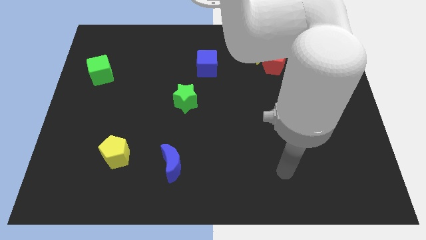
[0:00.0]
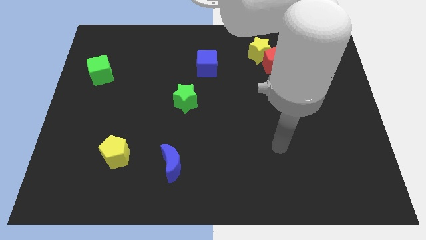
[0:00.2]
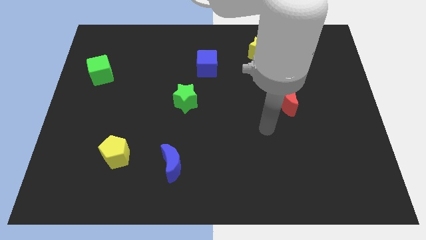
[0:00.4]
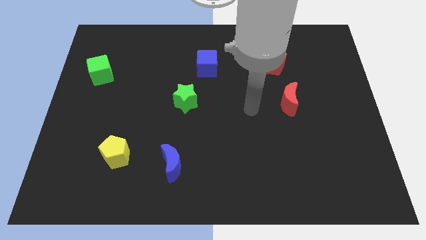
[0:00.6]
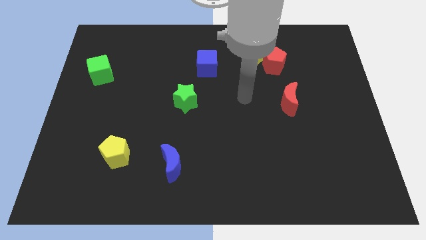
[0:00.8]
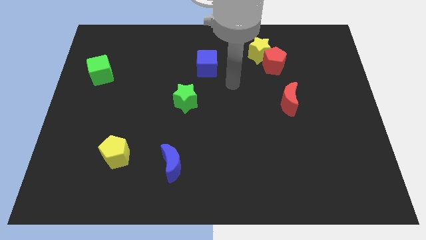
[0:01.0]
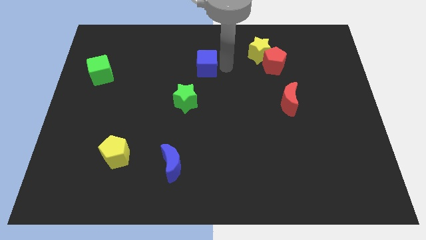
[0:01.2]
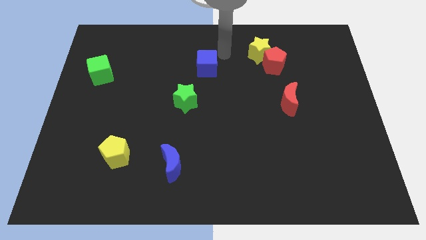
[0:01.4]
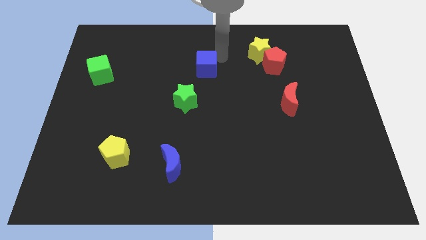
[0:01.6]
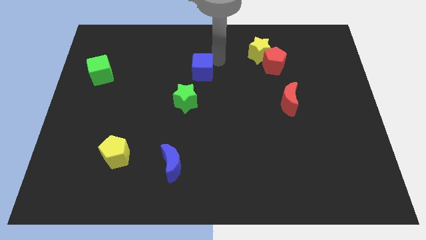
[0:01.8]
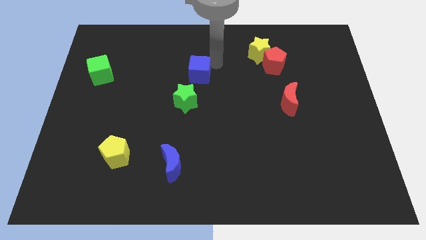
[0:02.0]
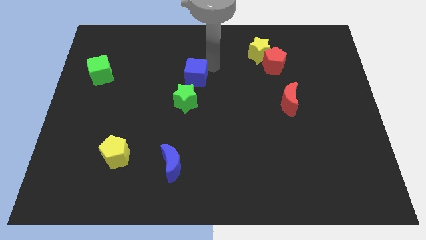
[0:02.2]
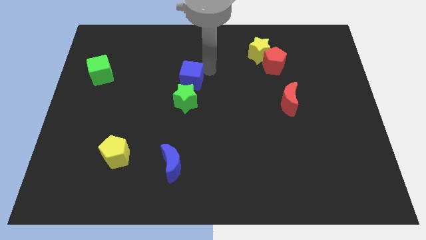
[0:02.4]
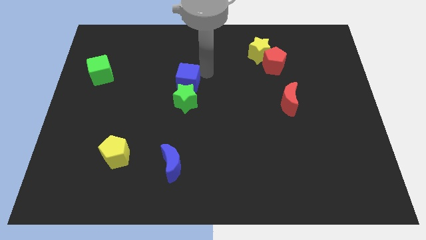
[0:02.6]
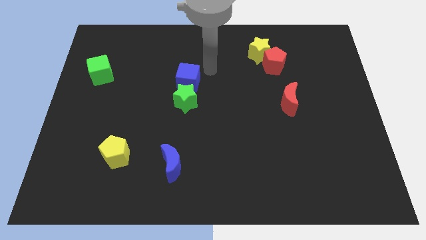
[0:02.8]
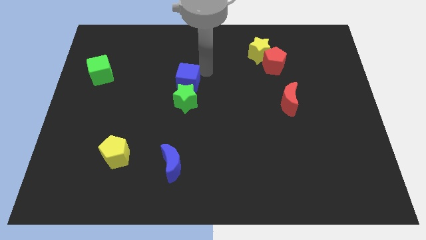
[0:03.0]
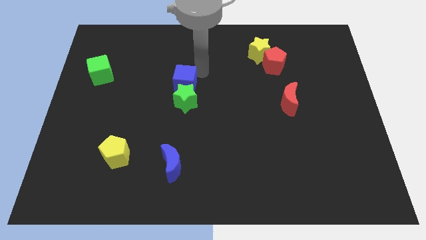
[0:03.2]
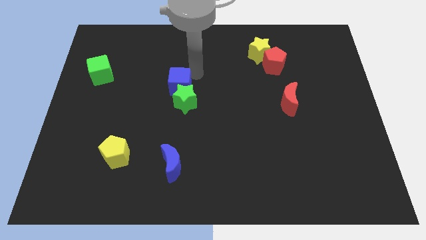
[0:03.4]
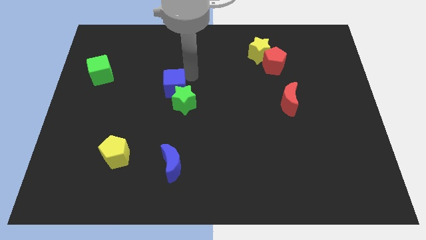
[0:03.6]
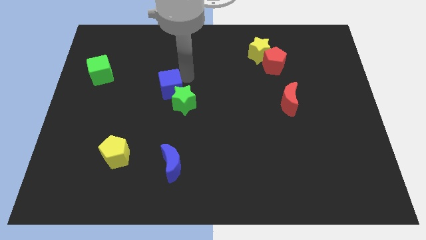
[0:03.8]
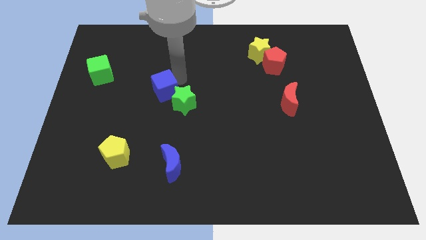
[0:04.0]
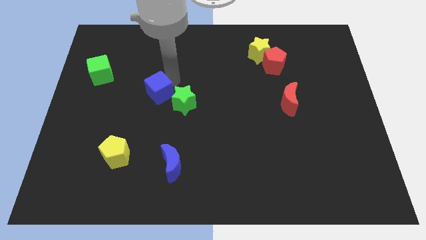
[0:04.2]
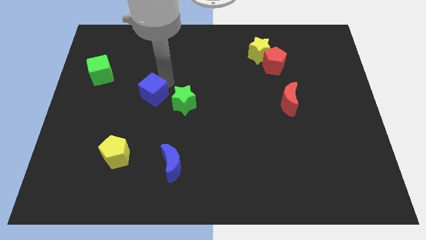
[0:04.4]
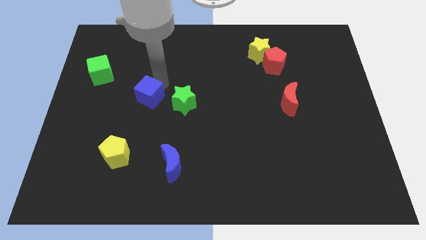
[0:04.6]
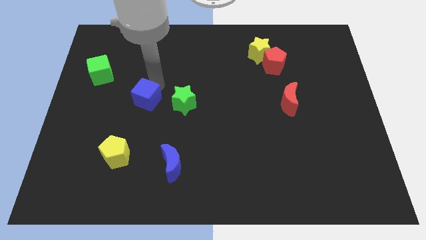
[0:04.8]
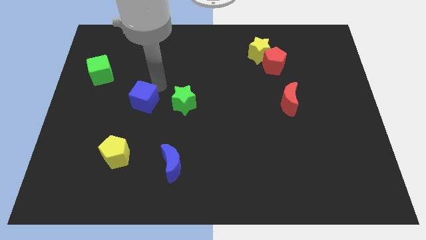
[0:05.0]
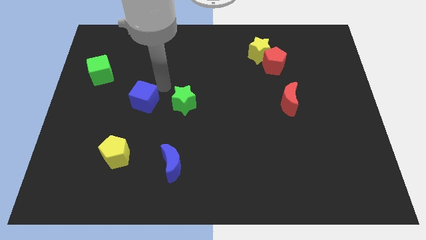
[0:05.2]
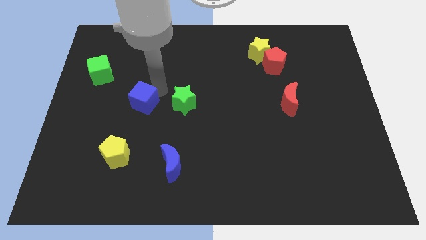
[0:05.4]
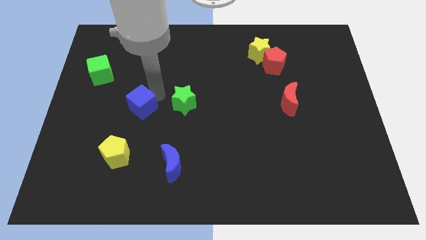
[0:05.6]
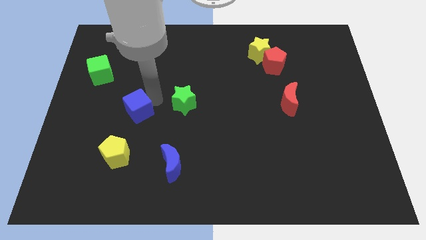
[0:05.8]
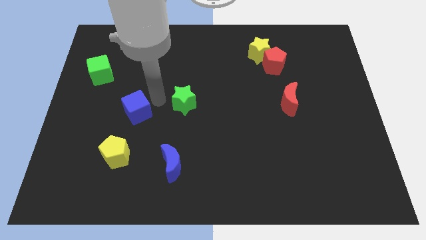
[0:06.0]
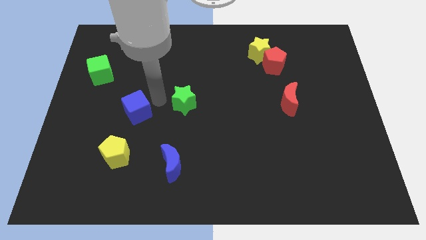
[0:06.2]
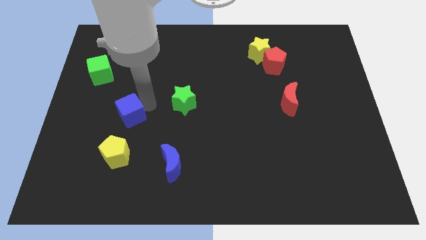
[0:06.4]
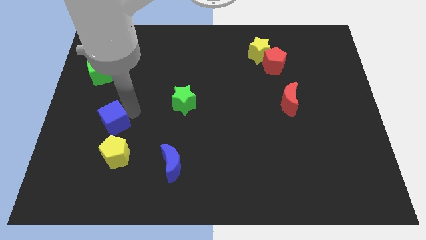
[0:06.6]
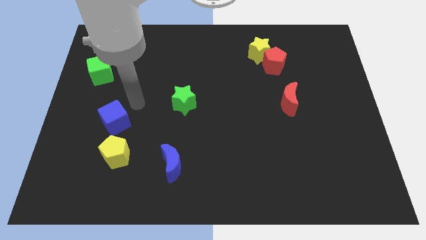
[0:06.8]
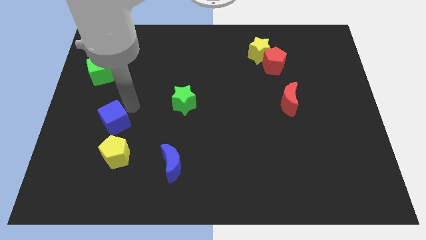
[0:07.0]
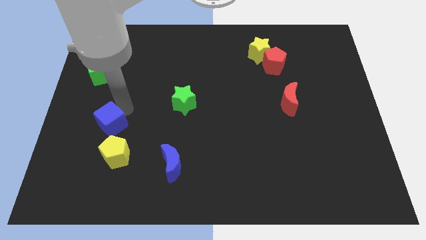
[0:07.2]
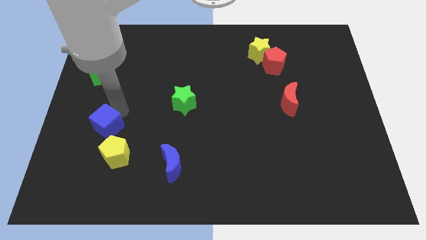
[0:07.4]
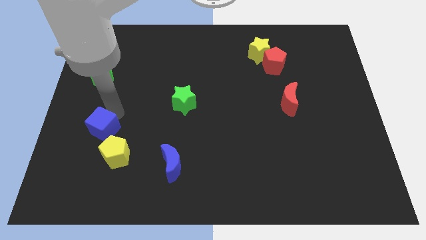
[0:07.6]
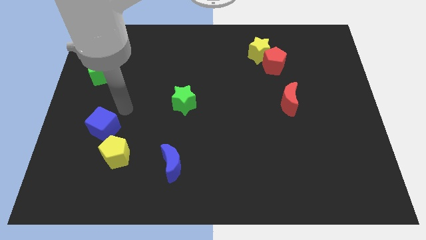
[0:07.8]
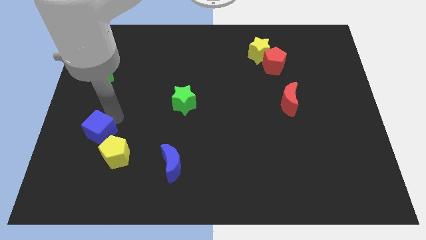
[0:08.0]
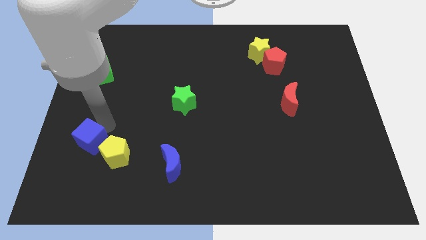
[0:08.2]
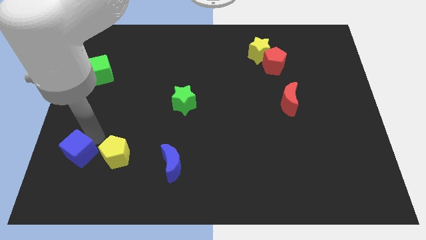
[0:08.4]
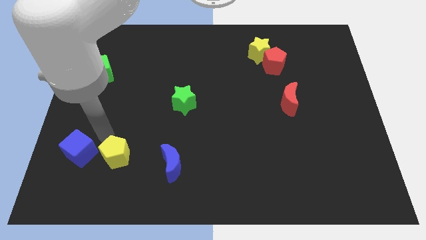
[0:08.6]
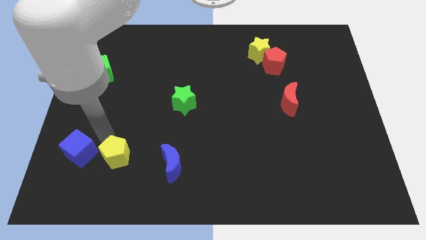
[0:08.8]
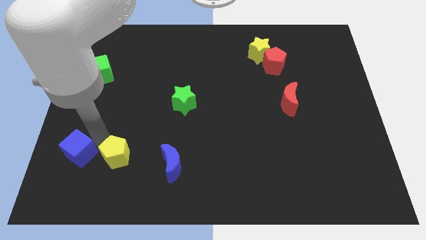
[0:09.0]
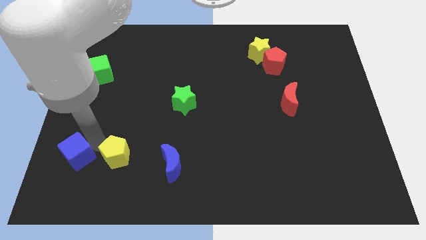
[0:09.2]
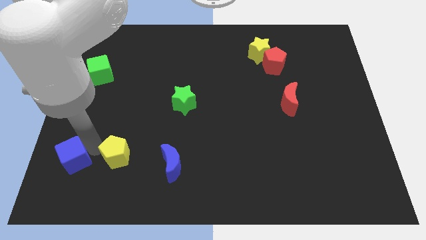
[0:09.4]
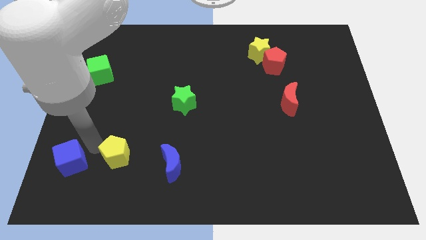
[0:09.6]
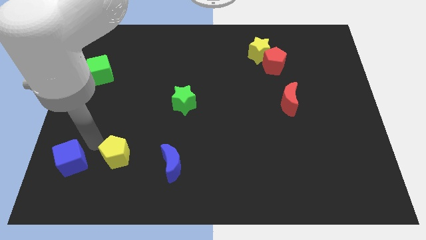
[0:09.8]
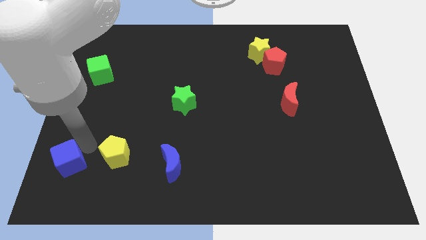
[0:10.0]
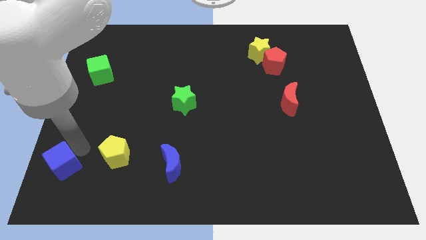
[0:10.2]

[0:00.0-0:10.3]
put the blue cube to the bottom left corner

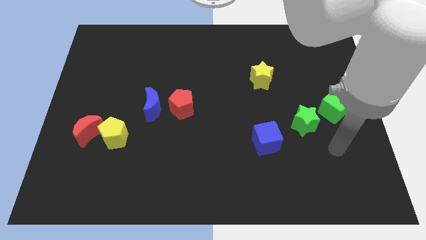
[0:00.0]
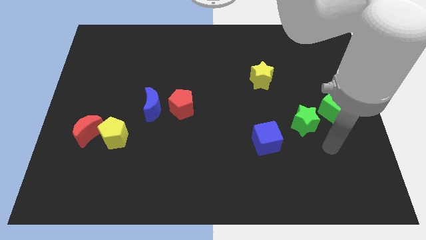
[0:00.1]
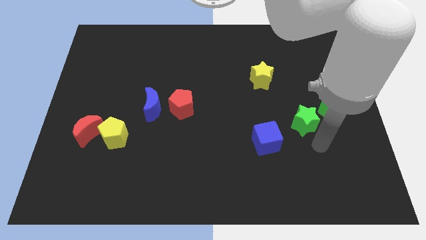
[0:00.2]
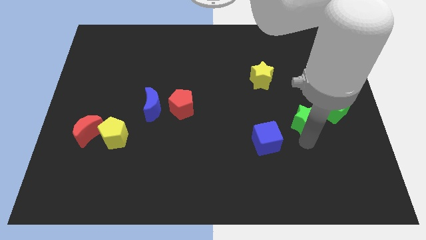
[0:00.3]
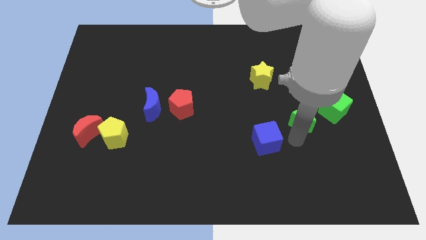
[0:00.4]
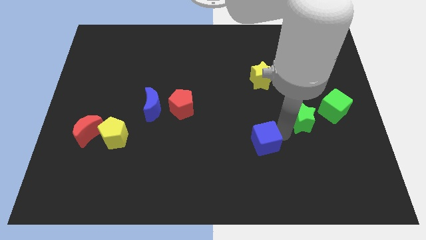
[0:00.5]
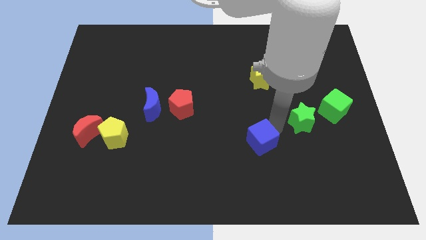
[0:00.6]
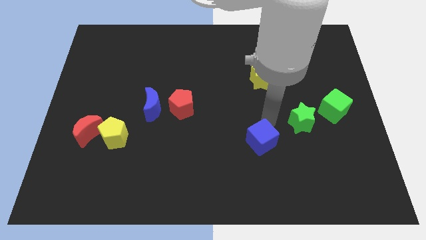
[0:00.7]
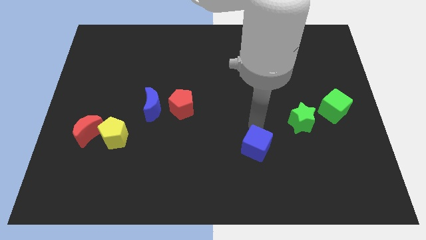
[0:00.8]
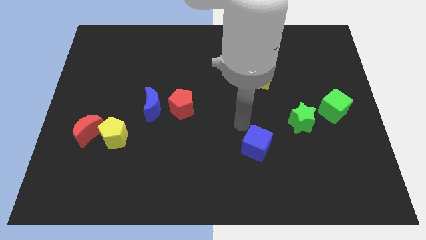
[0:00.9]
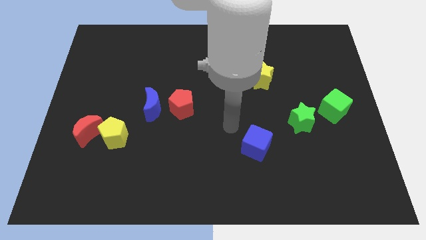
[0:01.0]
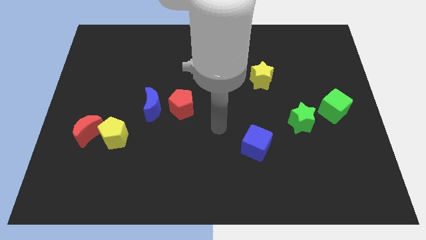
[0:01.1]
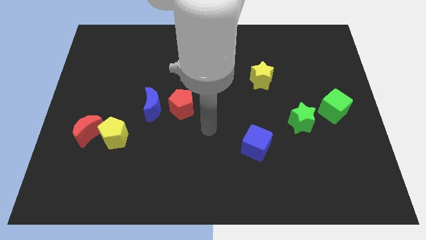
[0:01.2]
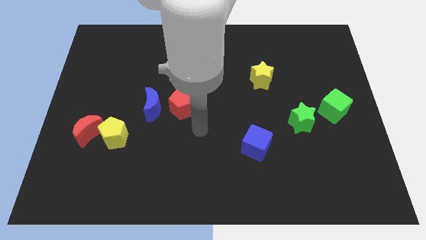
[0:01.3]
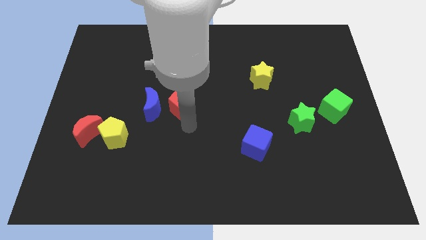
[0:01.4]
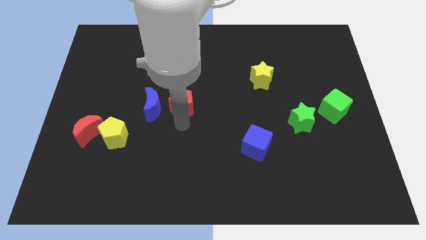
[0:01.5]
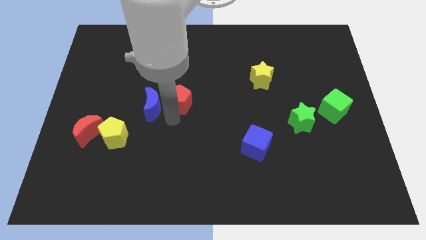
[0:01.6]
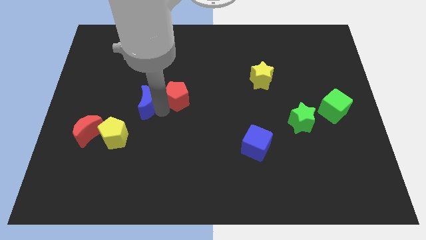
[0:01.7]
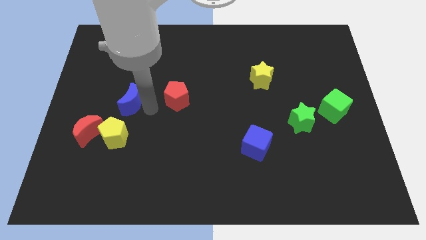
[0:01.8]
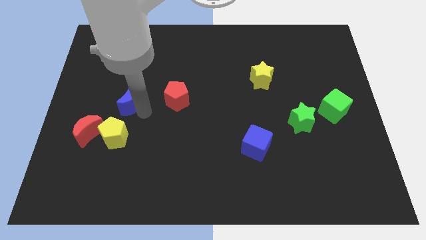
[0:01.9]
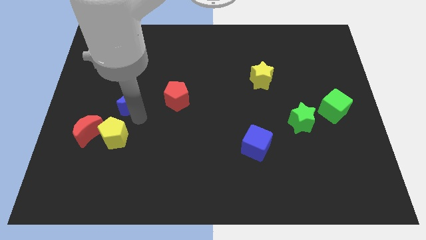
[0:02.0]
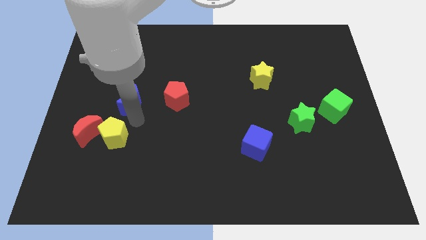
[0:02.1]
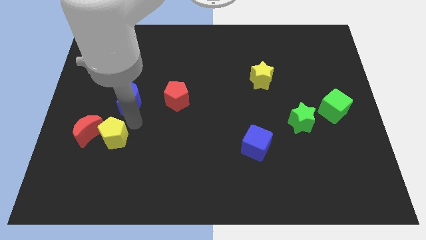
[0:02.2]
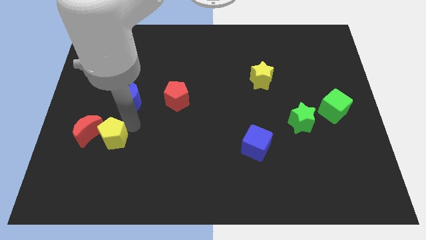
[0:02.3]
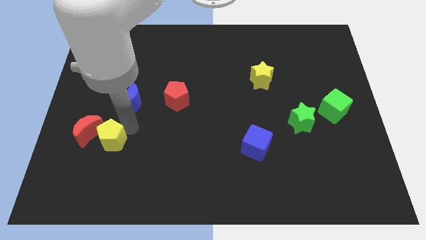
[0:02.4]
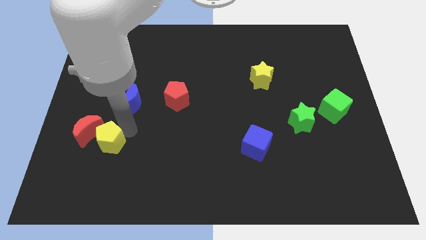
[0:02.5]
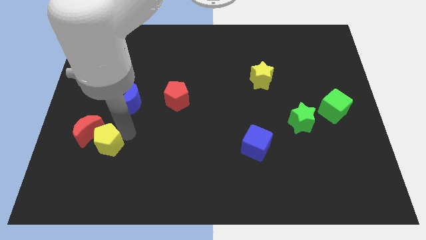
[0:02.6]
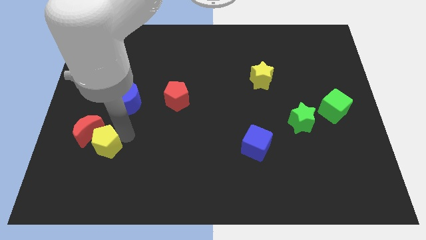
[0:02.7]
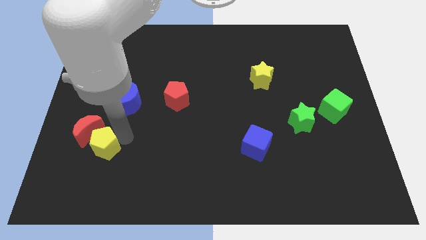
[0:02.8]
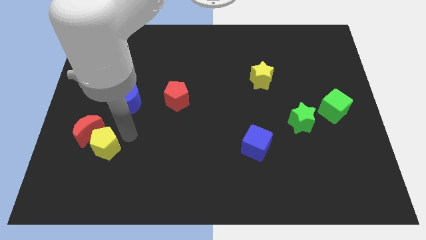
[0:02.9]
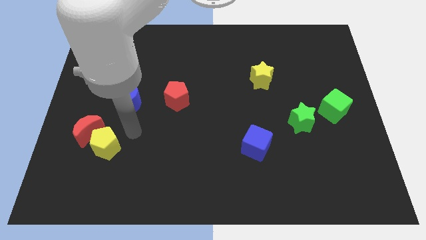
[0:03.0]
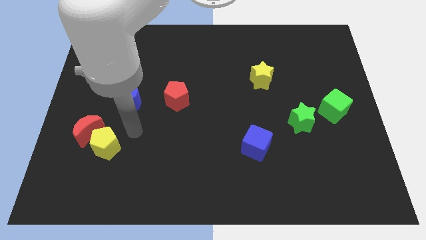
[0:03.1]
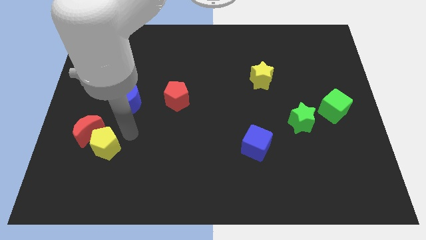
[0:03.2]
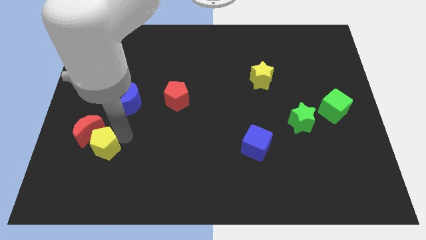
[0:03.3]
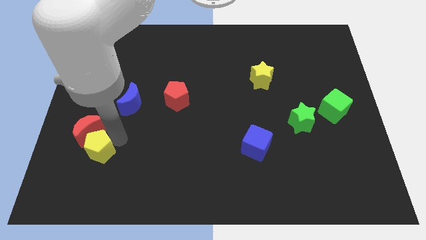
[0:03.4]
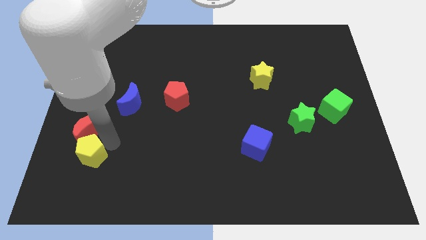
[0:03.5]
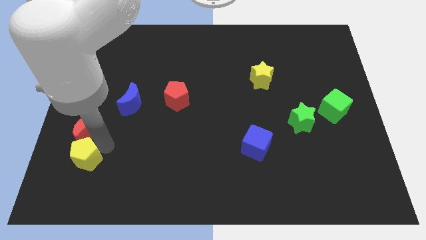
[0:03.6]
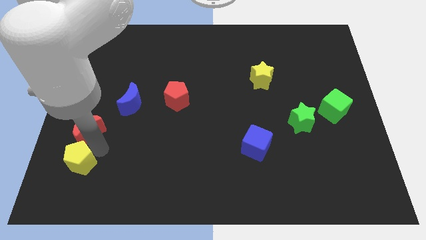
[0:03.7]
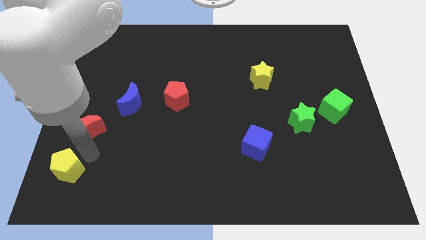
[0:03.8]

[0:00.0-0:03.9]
move the yellow pentagon to the bottom left corner
